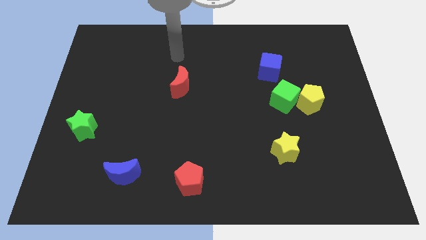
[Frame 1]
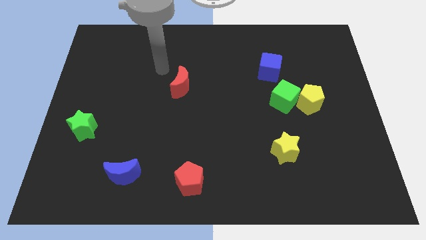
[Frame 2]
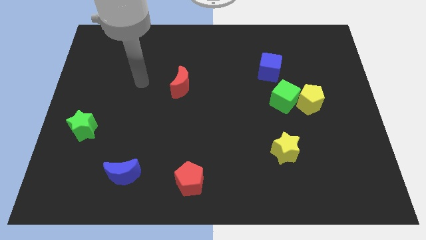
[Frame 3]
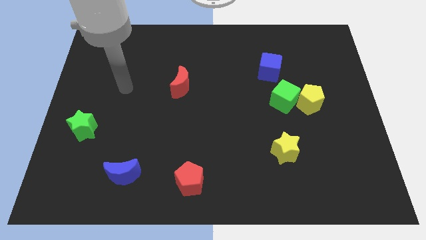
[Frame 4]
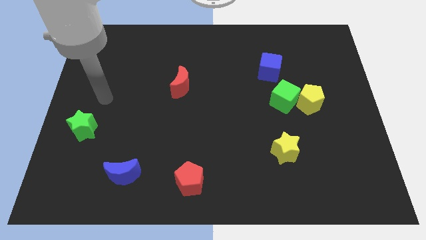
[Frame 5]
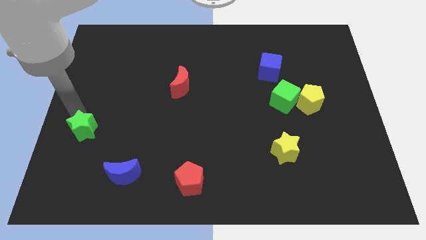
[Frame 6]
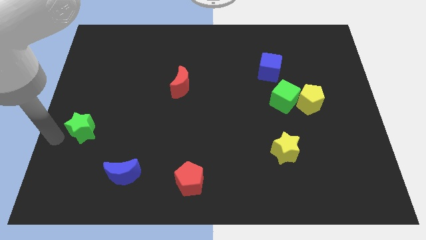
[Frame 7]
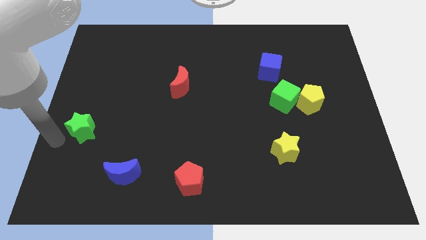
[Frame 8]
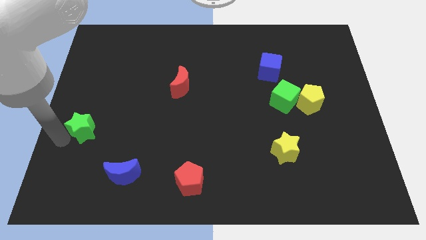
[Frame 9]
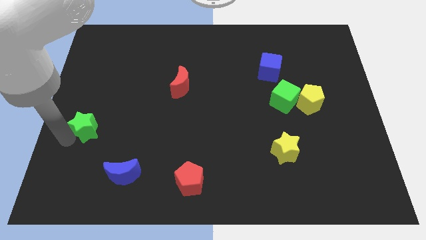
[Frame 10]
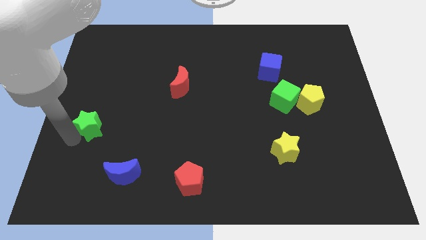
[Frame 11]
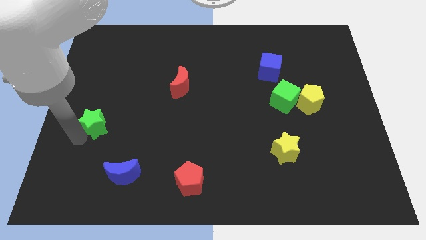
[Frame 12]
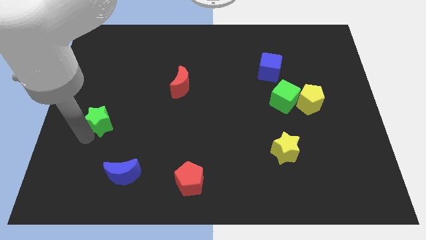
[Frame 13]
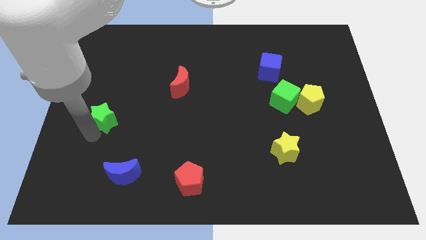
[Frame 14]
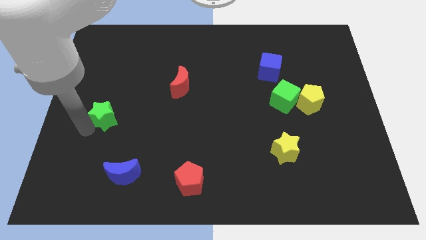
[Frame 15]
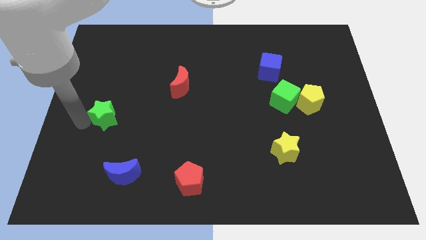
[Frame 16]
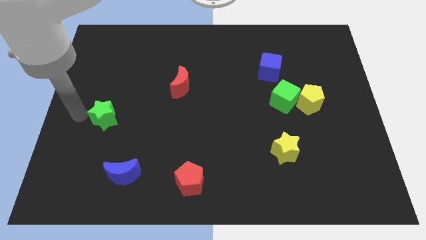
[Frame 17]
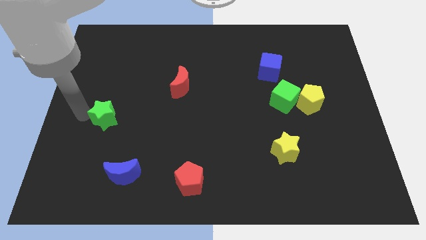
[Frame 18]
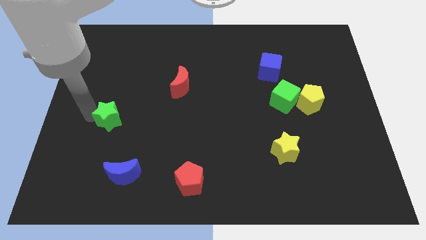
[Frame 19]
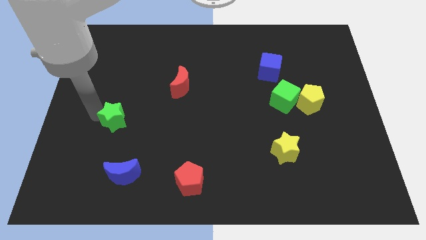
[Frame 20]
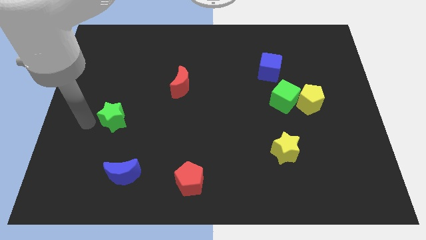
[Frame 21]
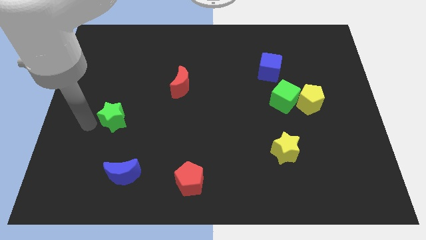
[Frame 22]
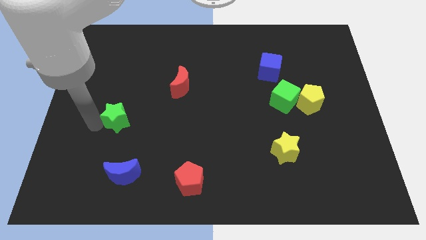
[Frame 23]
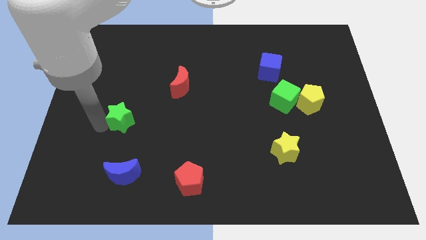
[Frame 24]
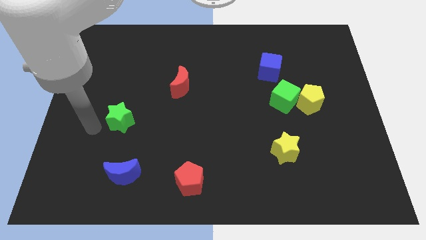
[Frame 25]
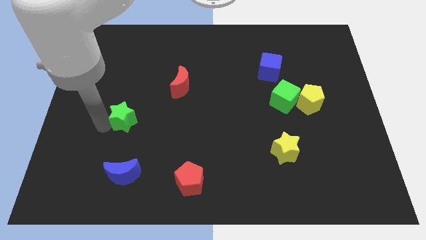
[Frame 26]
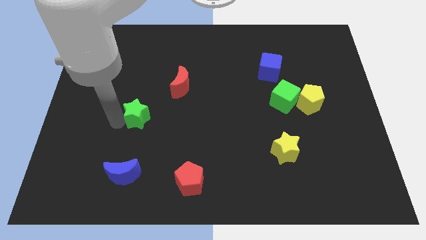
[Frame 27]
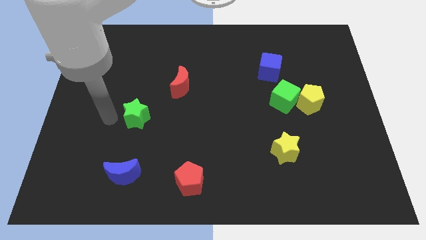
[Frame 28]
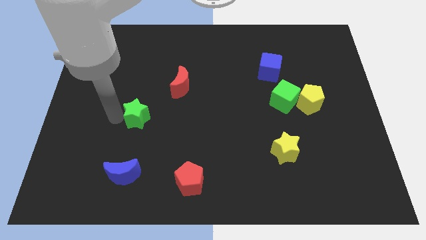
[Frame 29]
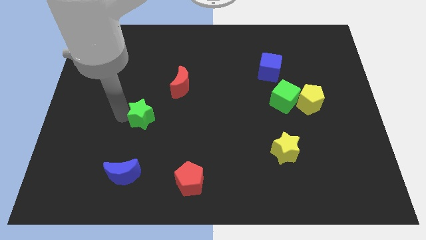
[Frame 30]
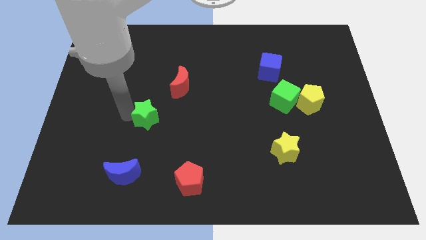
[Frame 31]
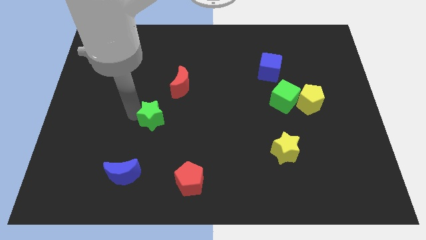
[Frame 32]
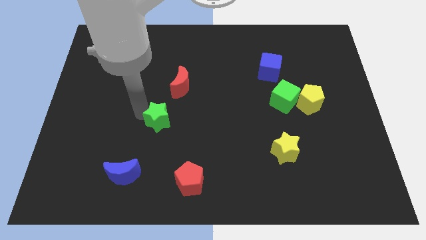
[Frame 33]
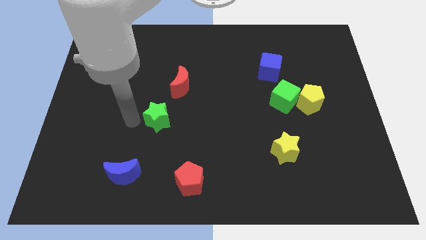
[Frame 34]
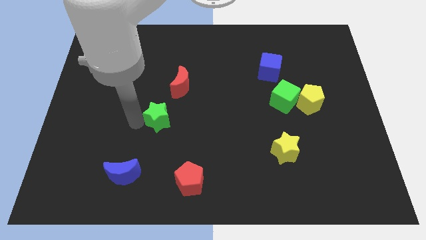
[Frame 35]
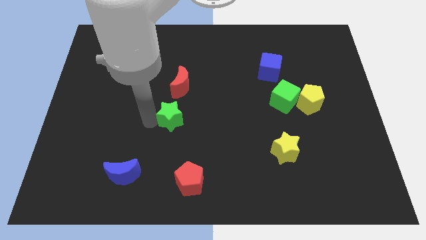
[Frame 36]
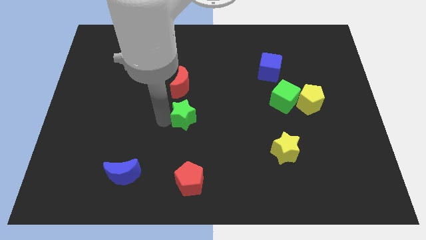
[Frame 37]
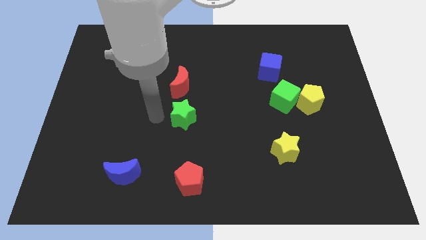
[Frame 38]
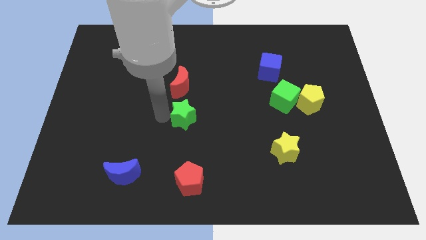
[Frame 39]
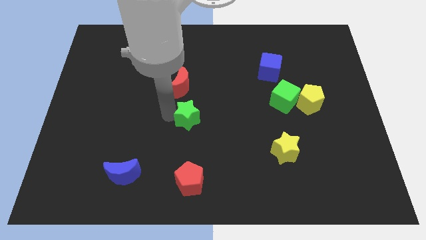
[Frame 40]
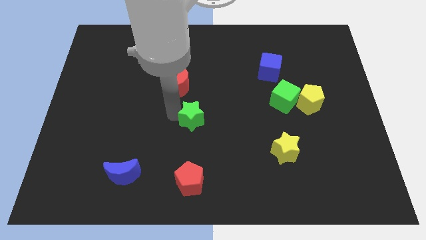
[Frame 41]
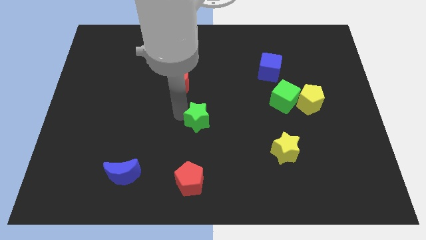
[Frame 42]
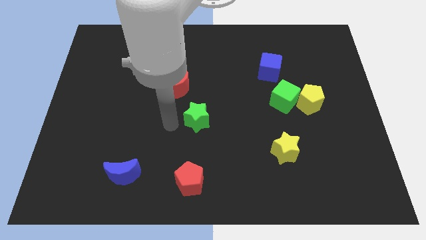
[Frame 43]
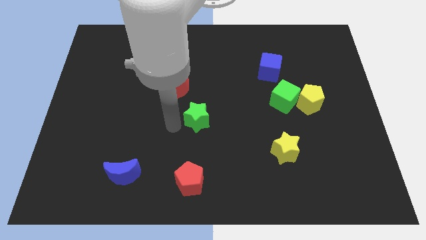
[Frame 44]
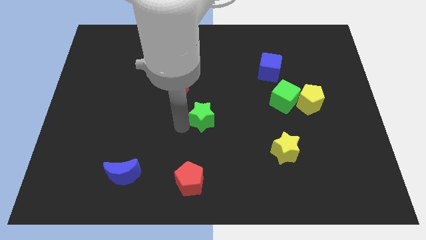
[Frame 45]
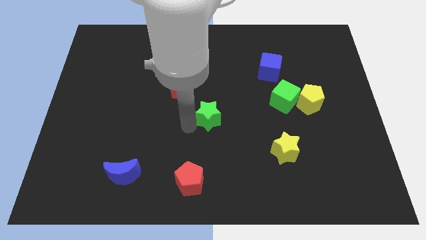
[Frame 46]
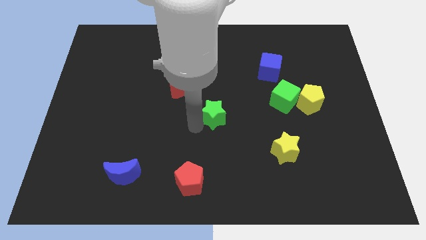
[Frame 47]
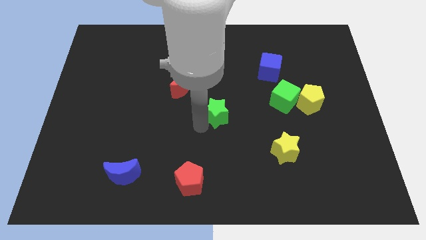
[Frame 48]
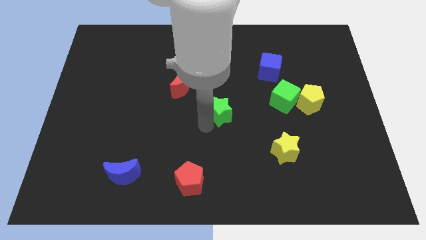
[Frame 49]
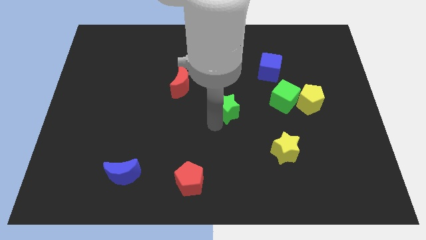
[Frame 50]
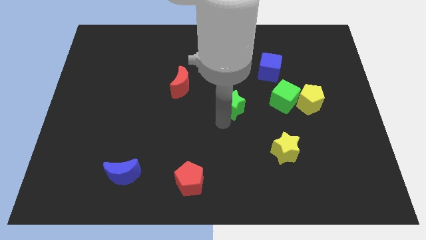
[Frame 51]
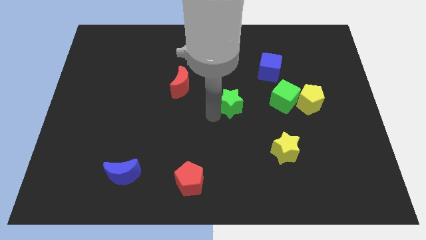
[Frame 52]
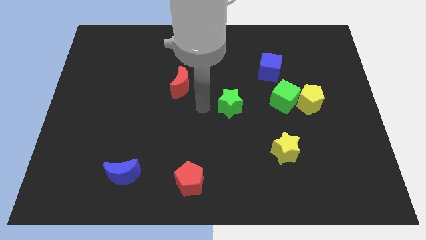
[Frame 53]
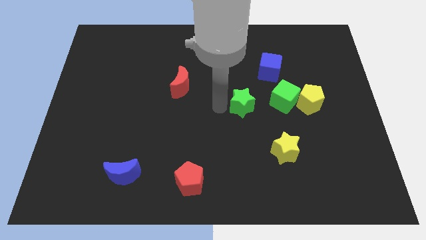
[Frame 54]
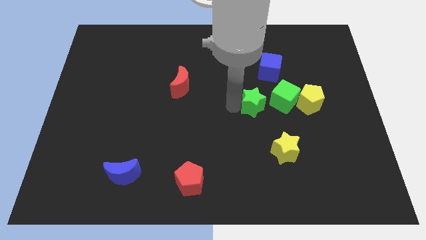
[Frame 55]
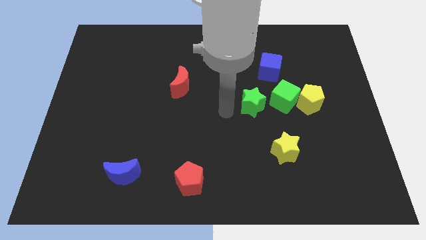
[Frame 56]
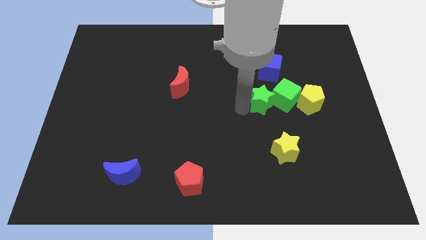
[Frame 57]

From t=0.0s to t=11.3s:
move the green star next to the green cube

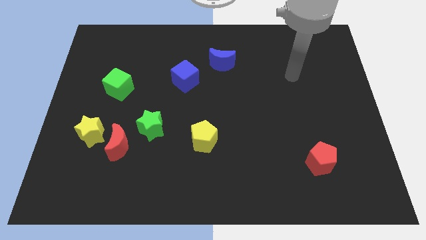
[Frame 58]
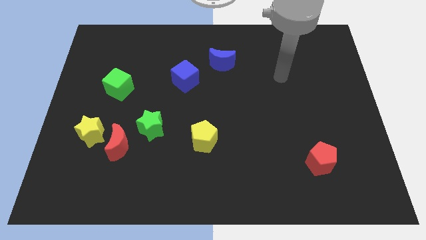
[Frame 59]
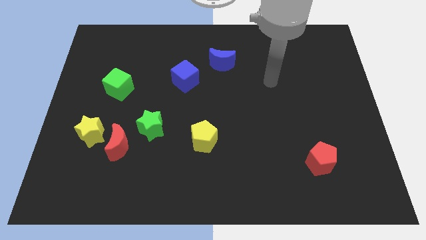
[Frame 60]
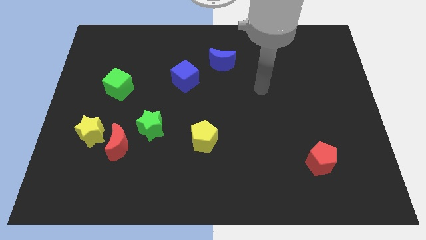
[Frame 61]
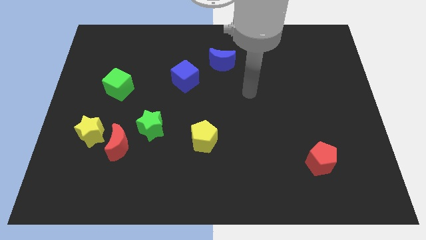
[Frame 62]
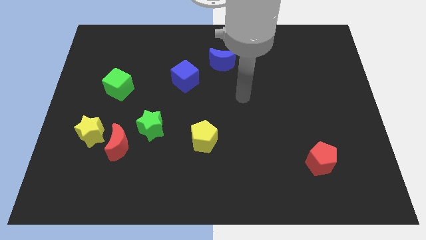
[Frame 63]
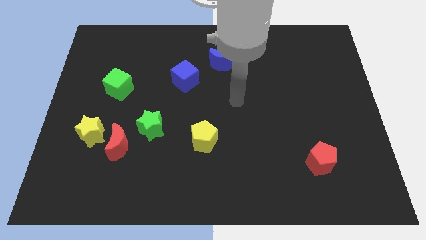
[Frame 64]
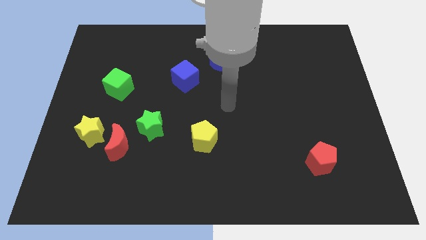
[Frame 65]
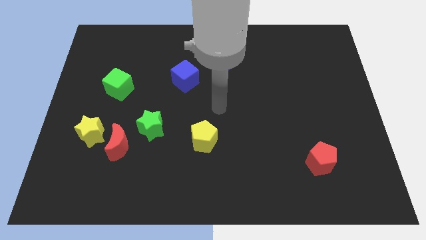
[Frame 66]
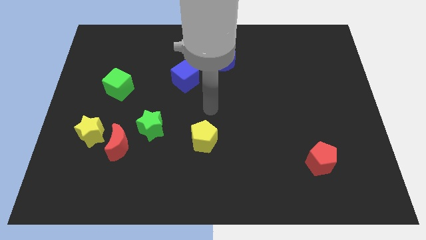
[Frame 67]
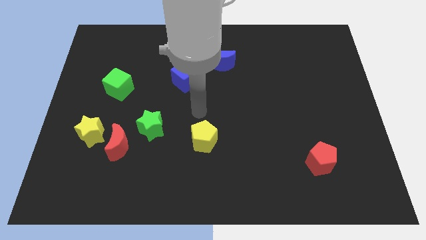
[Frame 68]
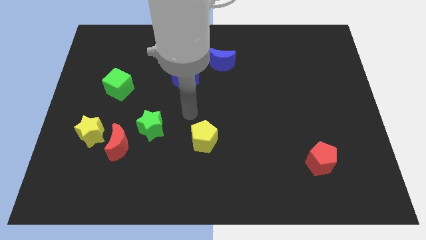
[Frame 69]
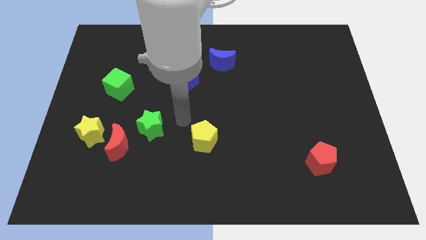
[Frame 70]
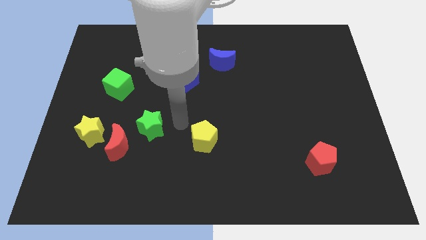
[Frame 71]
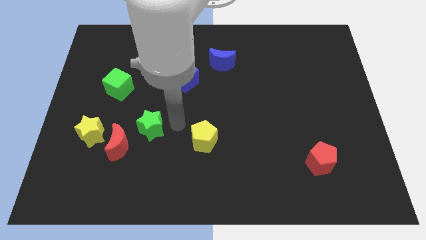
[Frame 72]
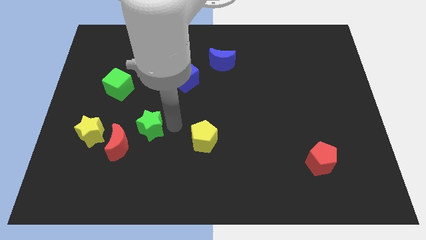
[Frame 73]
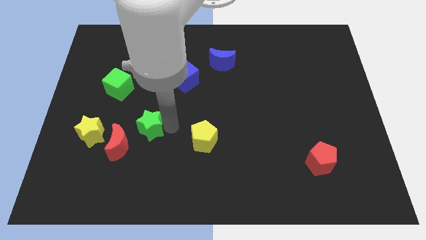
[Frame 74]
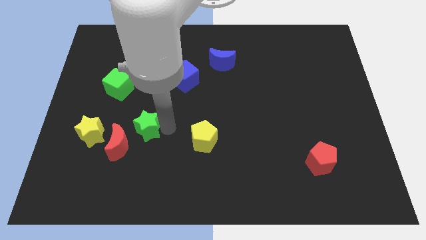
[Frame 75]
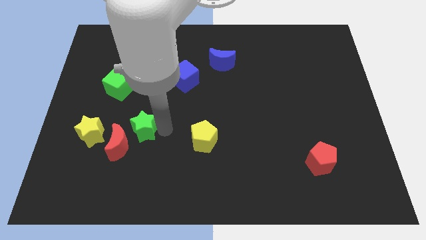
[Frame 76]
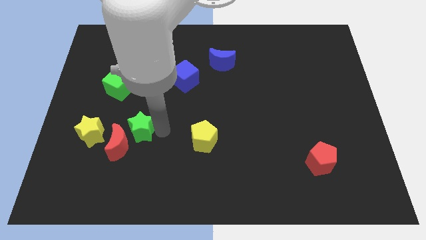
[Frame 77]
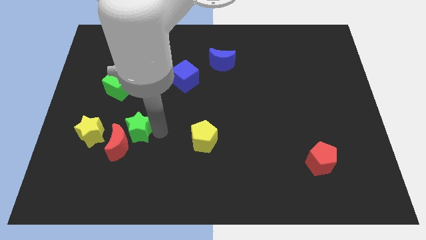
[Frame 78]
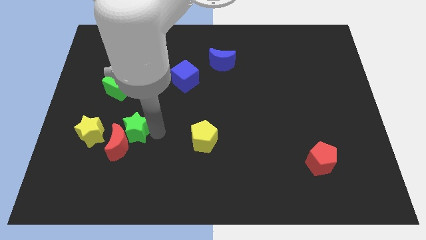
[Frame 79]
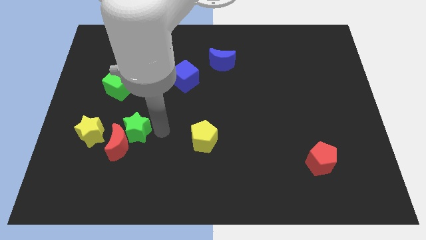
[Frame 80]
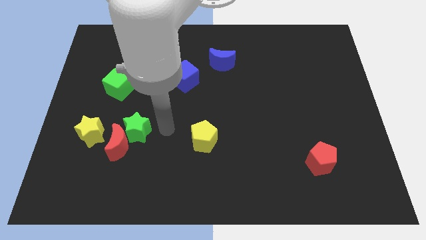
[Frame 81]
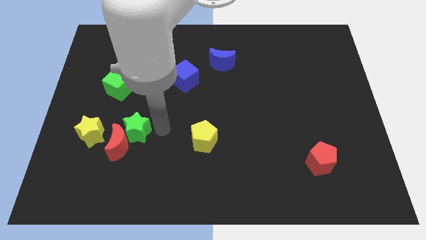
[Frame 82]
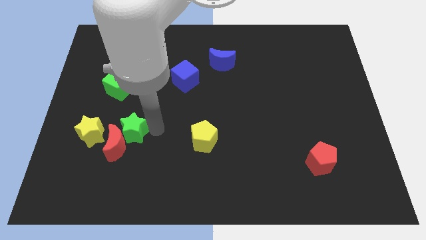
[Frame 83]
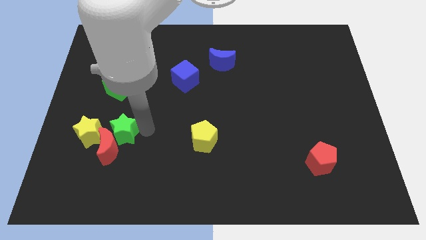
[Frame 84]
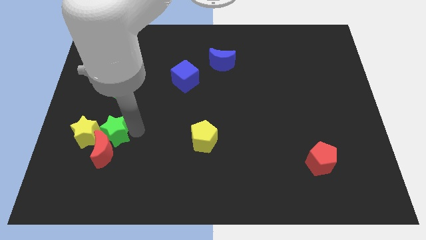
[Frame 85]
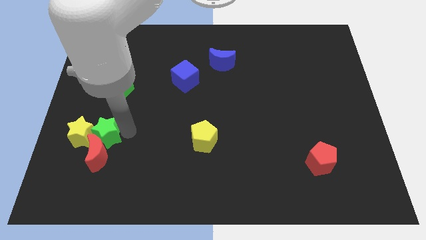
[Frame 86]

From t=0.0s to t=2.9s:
slide the green star next to the yellow star
